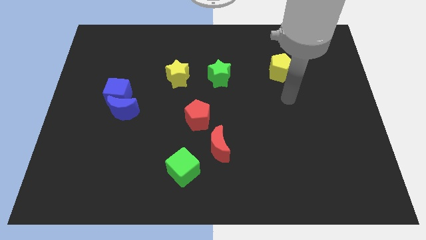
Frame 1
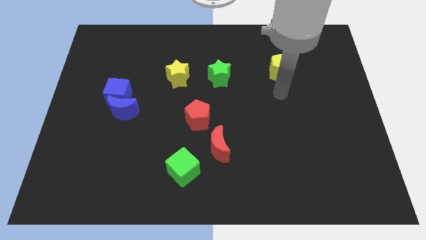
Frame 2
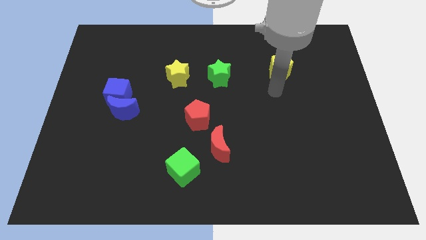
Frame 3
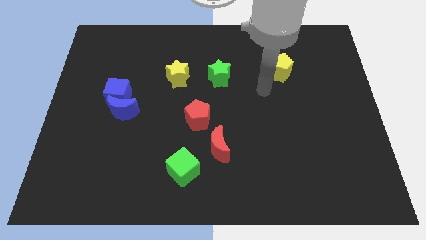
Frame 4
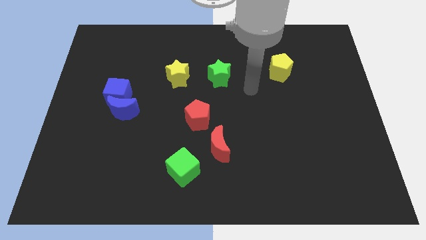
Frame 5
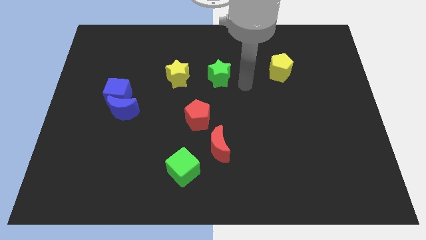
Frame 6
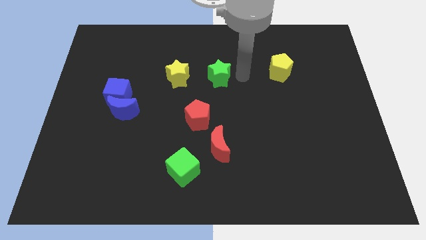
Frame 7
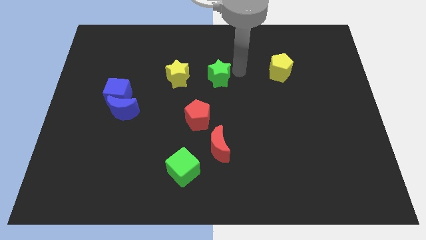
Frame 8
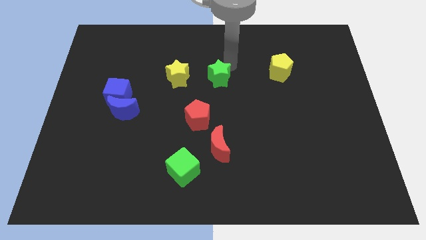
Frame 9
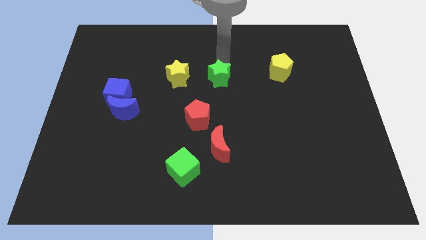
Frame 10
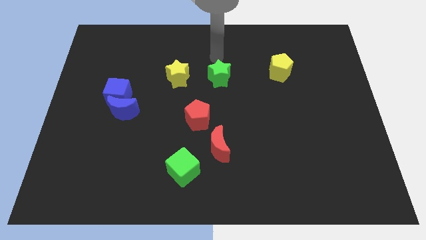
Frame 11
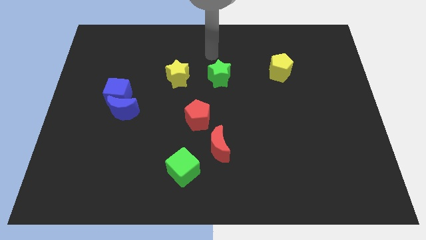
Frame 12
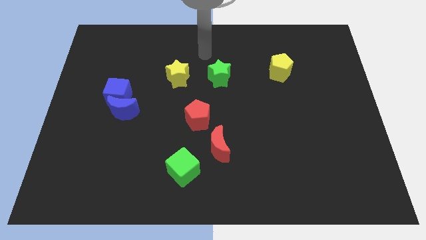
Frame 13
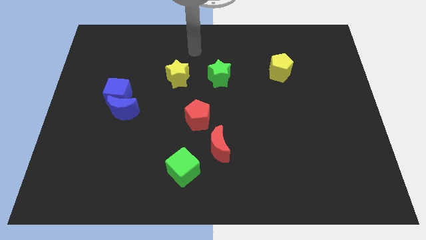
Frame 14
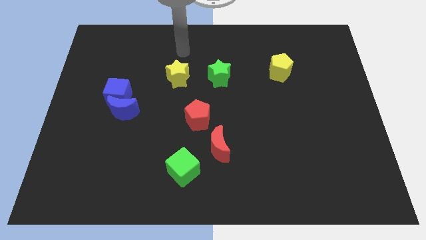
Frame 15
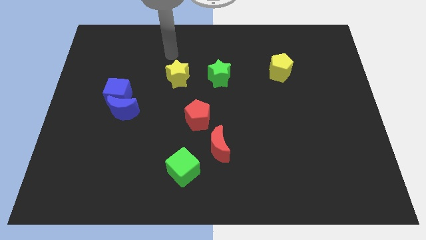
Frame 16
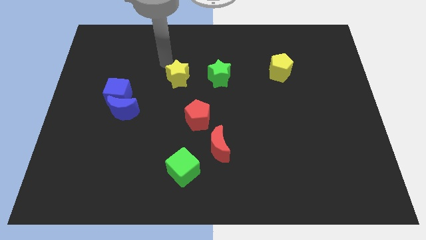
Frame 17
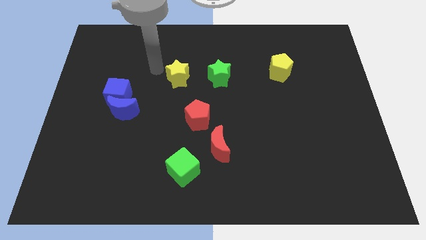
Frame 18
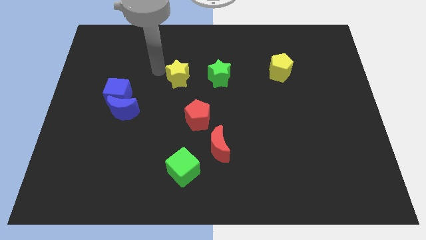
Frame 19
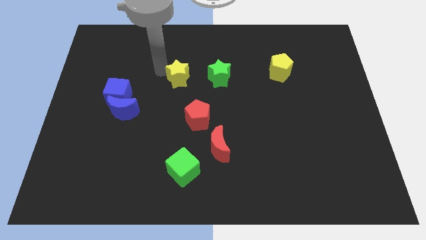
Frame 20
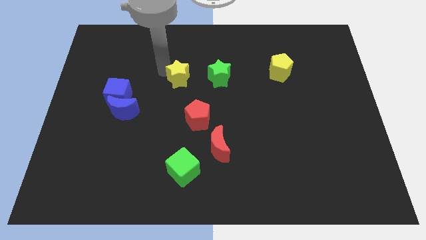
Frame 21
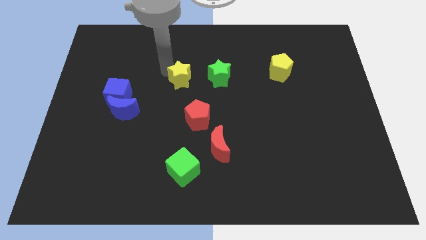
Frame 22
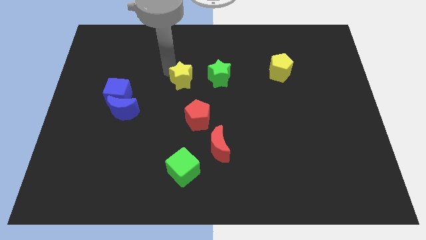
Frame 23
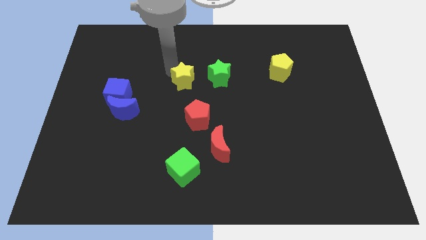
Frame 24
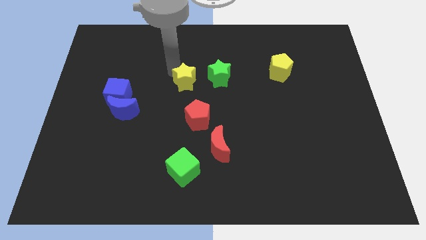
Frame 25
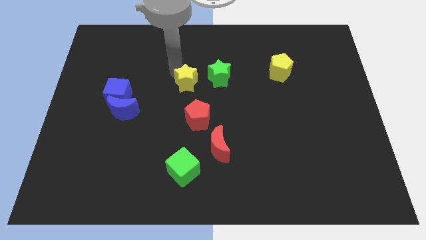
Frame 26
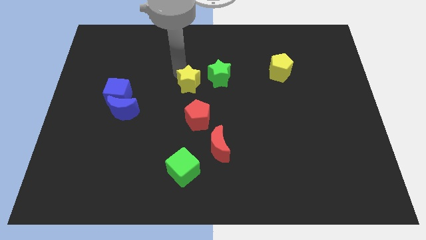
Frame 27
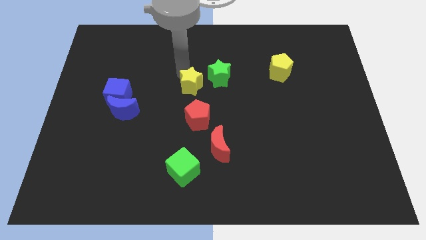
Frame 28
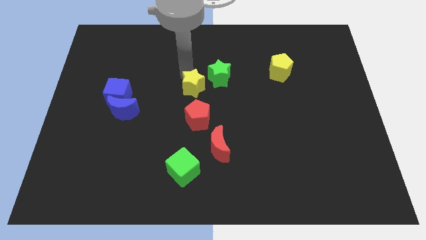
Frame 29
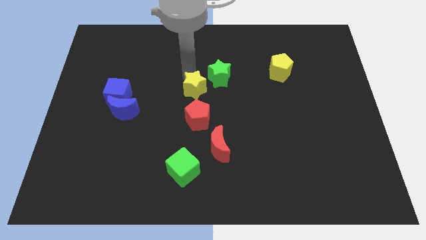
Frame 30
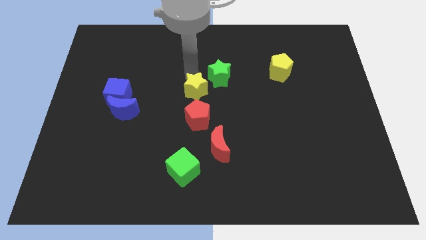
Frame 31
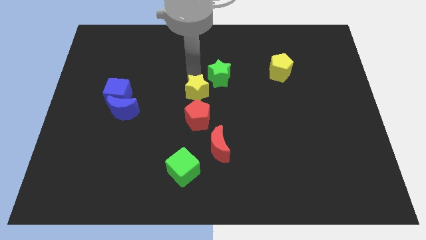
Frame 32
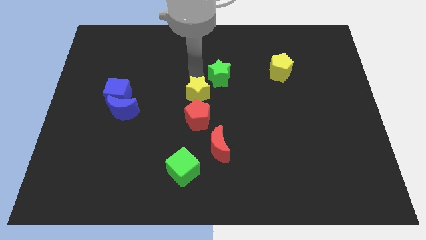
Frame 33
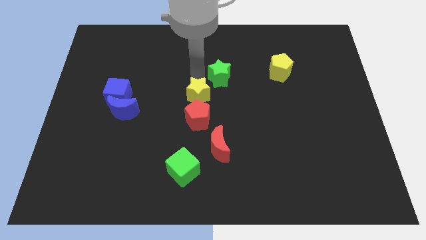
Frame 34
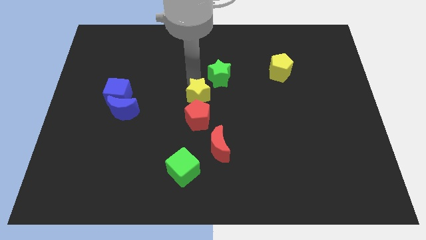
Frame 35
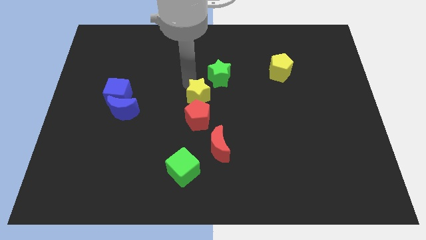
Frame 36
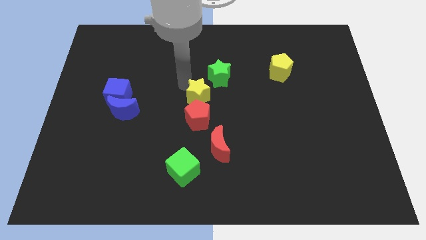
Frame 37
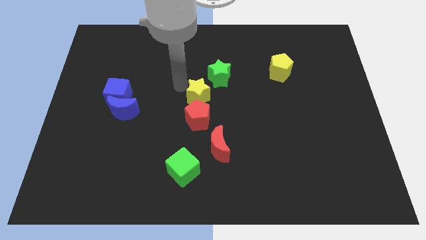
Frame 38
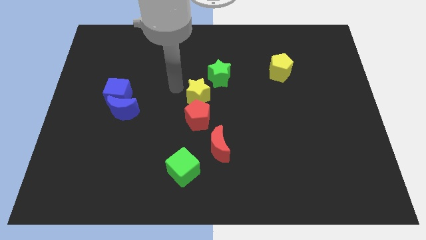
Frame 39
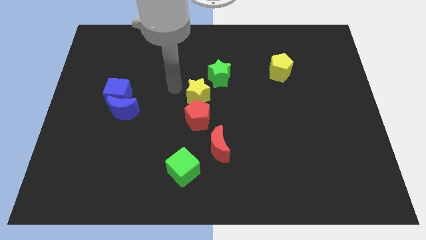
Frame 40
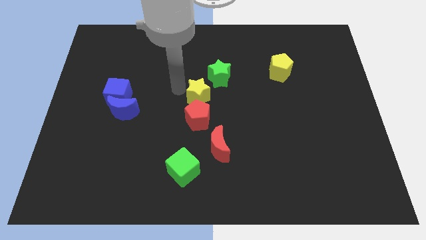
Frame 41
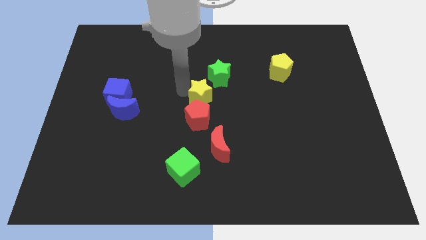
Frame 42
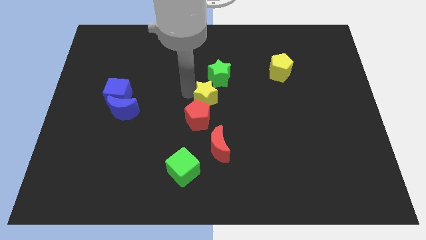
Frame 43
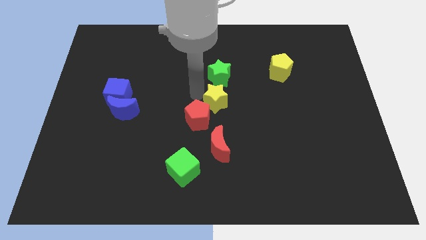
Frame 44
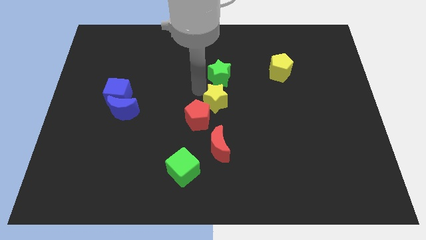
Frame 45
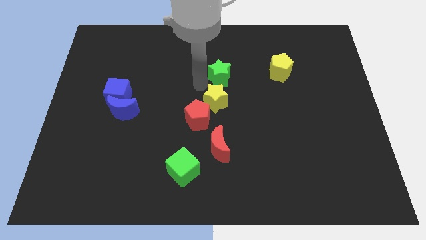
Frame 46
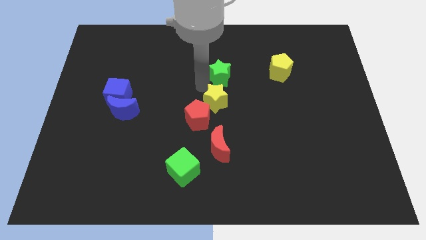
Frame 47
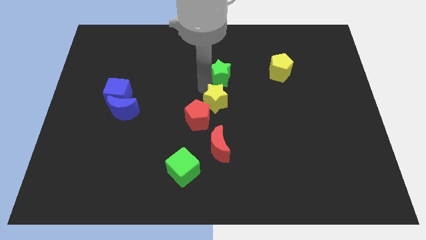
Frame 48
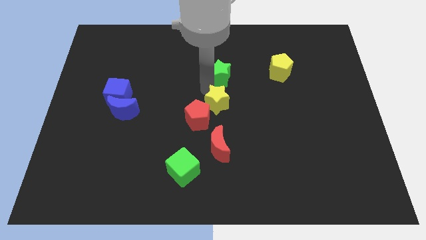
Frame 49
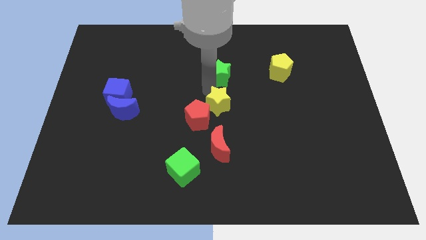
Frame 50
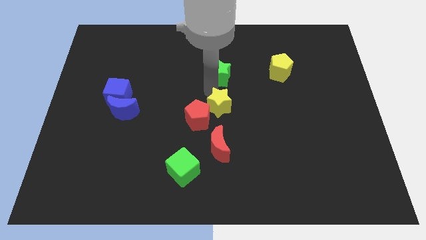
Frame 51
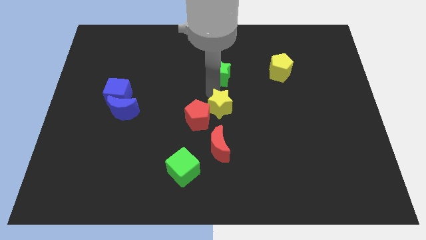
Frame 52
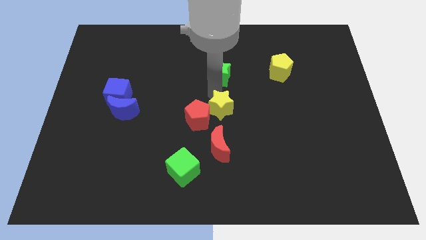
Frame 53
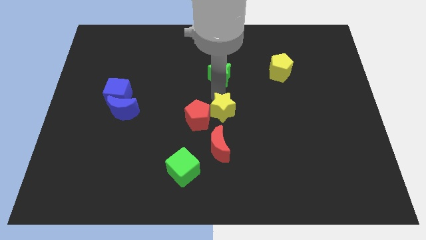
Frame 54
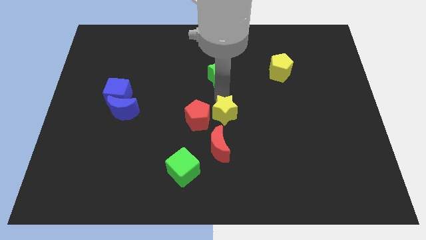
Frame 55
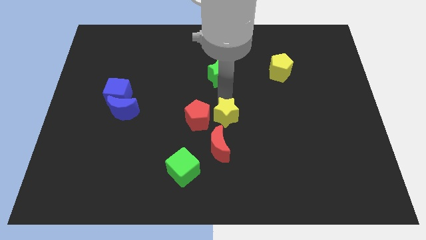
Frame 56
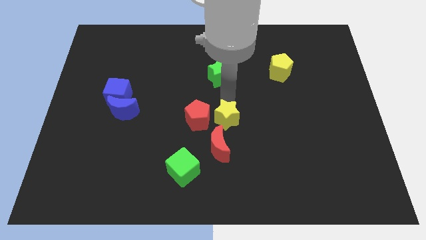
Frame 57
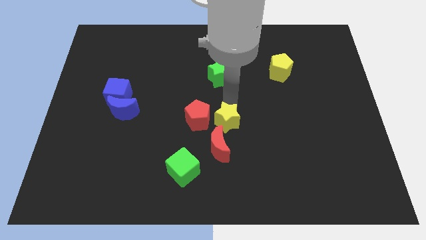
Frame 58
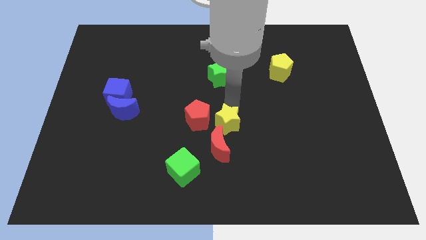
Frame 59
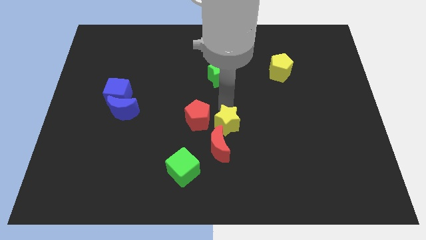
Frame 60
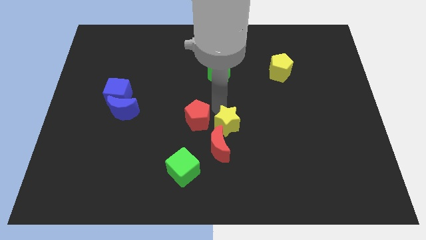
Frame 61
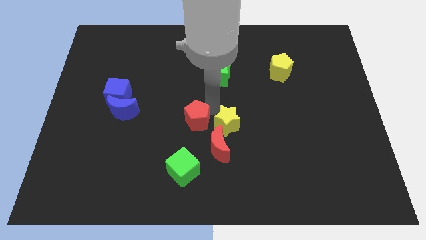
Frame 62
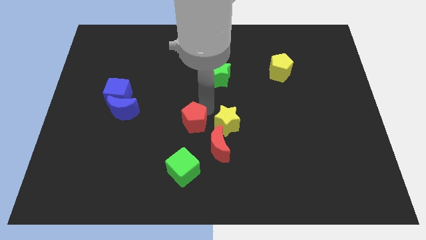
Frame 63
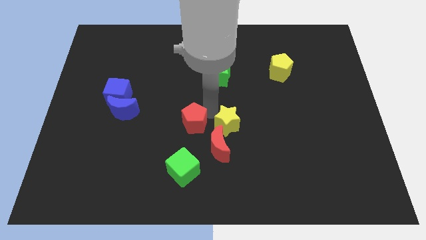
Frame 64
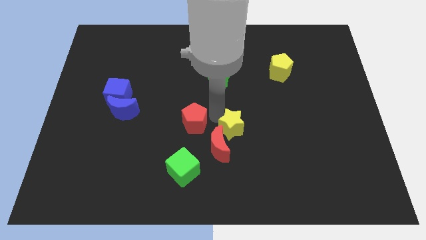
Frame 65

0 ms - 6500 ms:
move the yellow star downwards and to the right diagonally

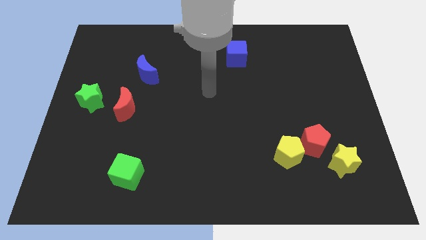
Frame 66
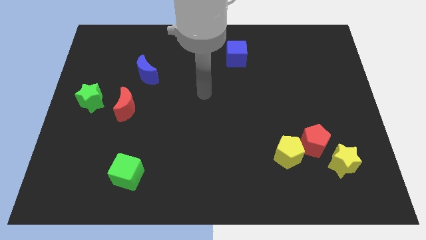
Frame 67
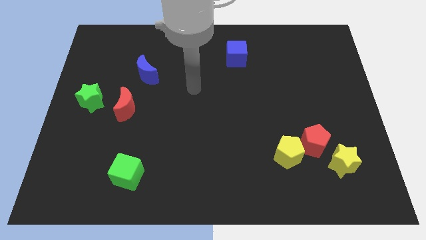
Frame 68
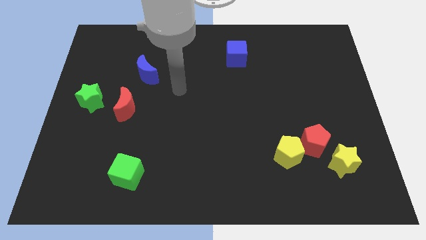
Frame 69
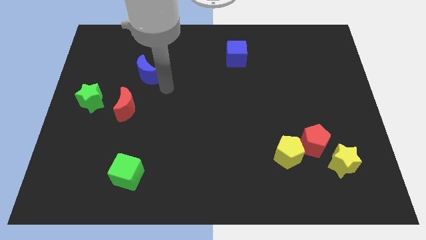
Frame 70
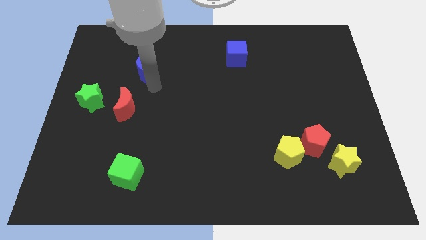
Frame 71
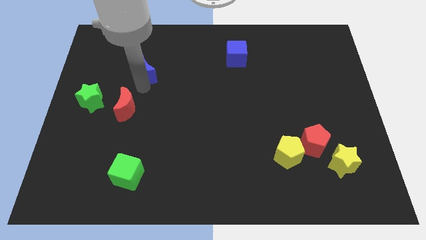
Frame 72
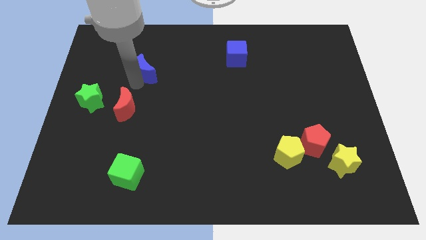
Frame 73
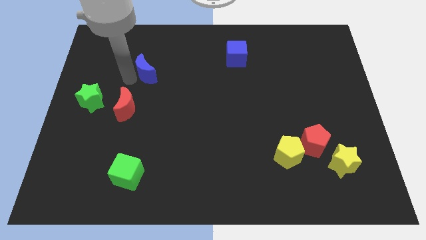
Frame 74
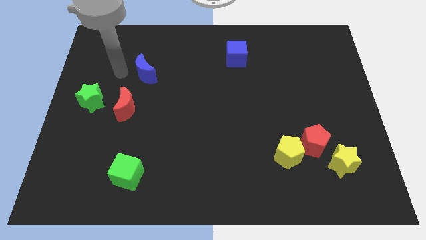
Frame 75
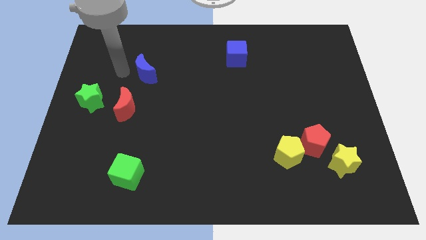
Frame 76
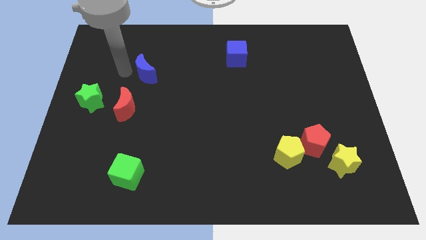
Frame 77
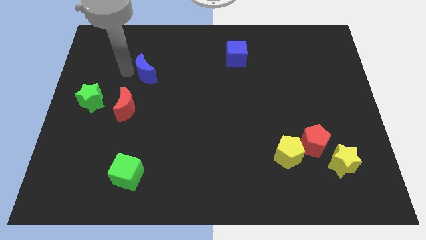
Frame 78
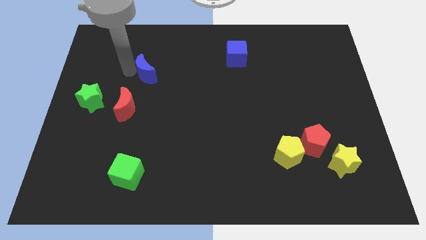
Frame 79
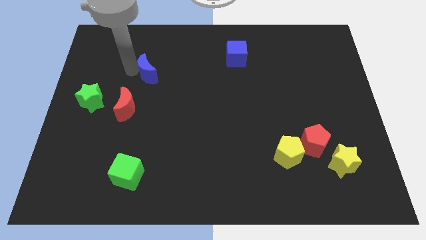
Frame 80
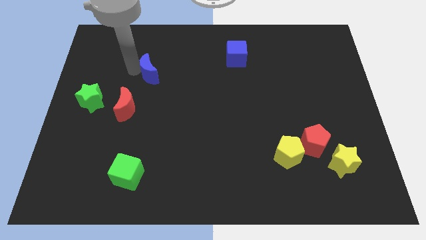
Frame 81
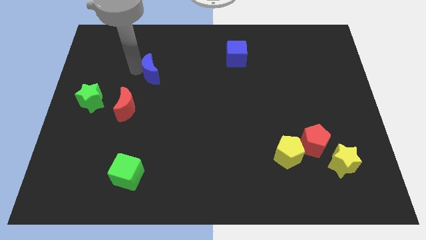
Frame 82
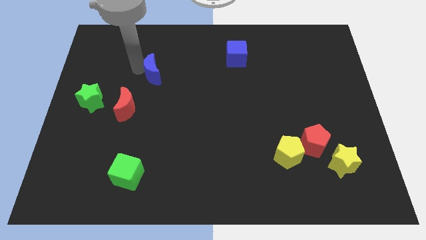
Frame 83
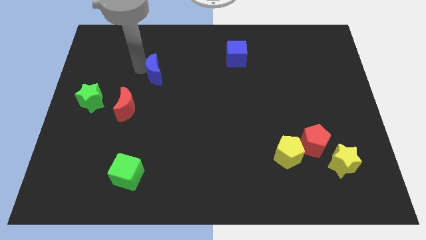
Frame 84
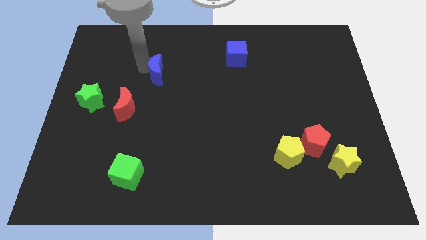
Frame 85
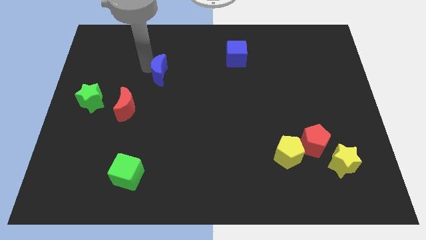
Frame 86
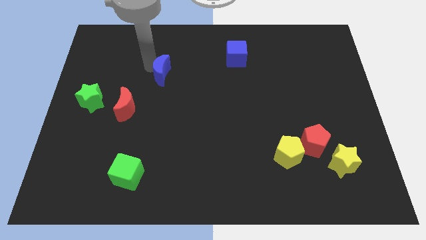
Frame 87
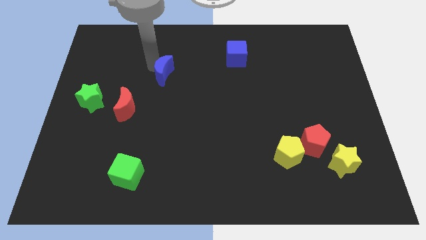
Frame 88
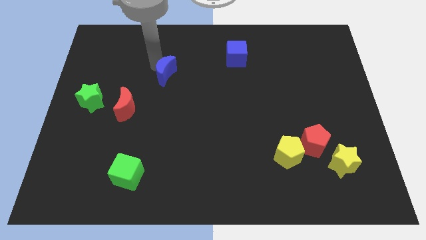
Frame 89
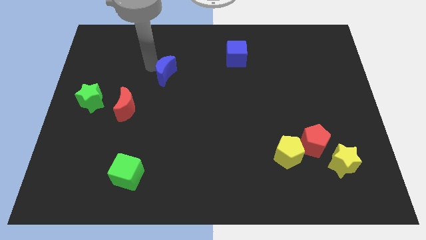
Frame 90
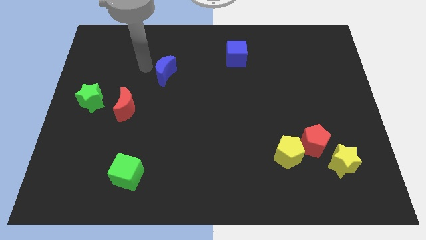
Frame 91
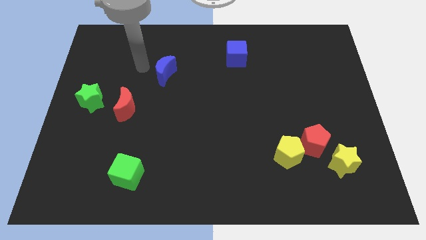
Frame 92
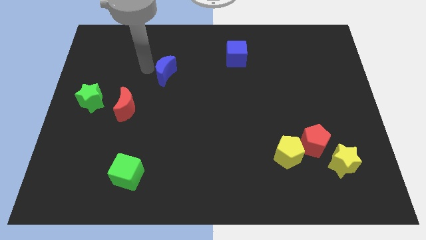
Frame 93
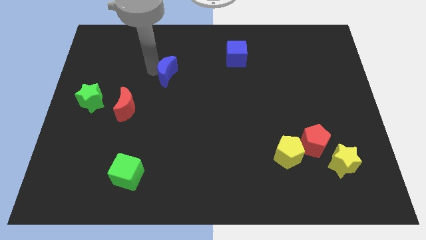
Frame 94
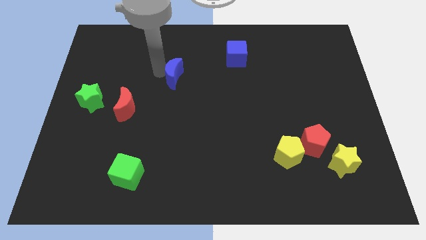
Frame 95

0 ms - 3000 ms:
push the blue moon a little right
